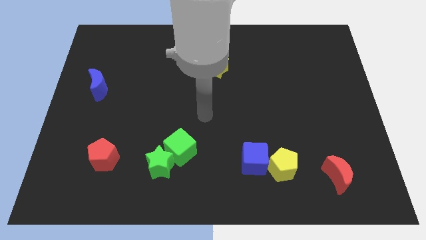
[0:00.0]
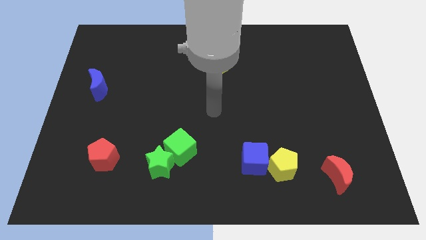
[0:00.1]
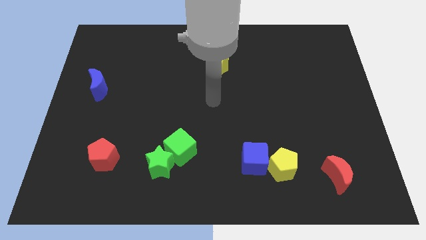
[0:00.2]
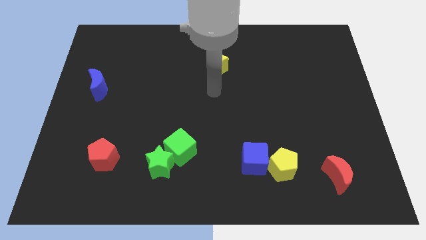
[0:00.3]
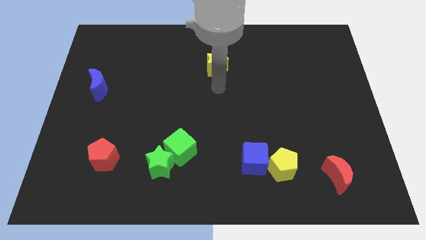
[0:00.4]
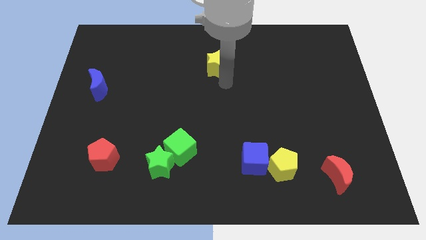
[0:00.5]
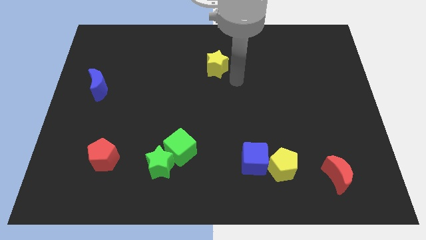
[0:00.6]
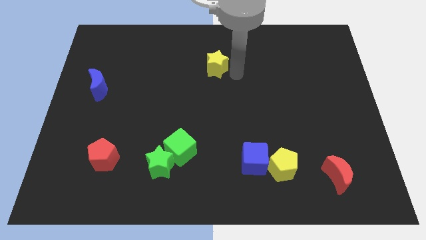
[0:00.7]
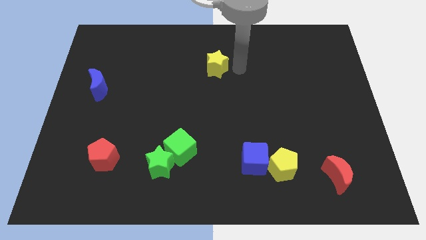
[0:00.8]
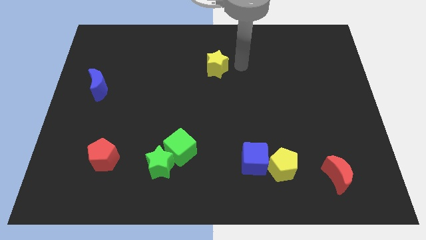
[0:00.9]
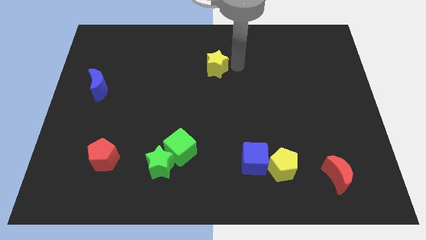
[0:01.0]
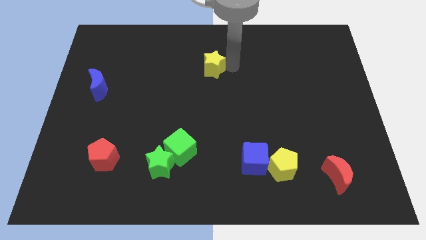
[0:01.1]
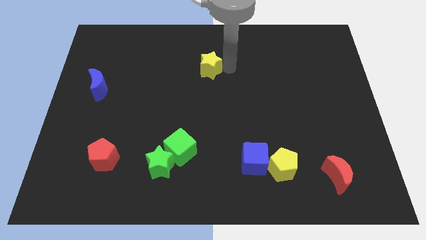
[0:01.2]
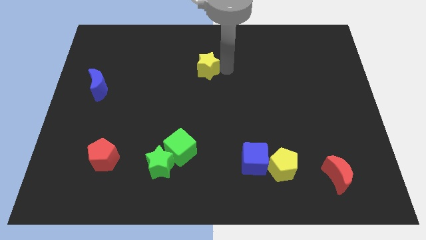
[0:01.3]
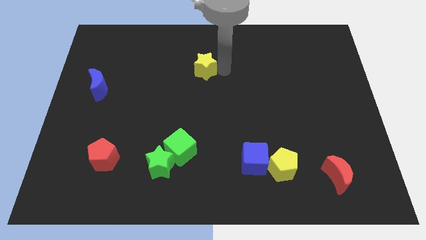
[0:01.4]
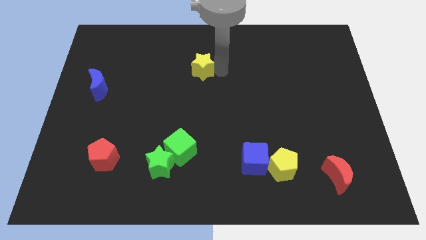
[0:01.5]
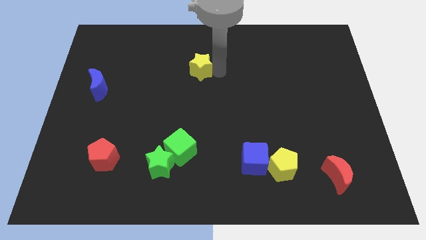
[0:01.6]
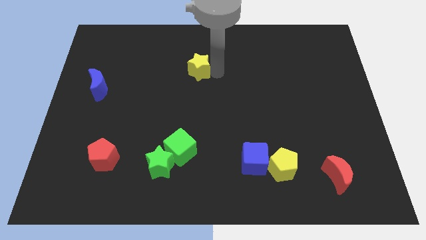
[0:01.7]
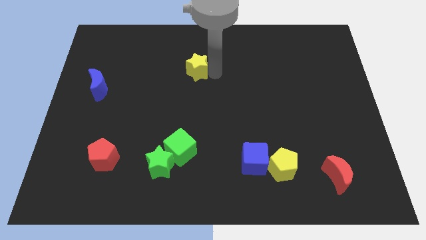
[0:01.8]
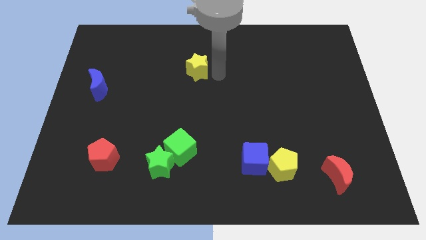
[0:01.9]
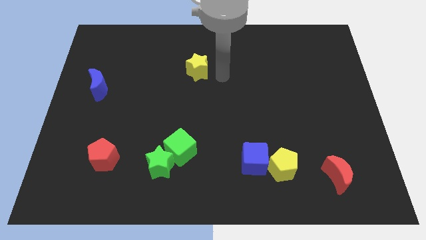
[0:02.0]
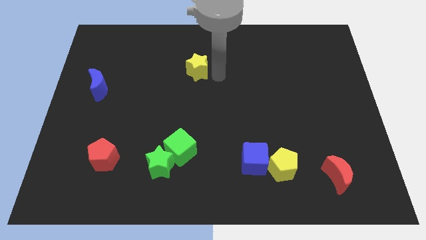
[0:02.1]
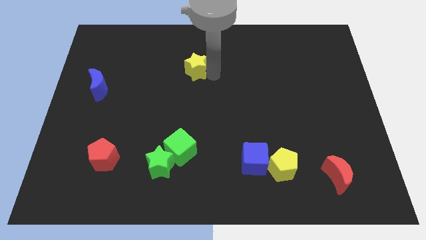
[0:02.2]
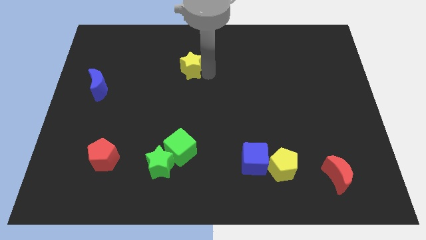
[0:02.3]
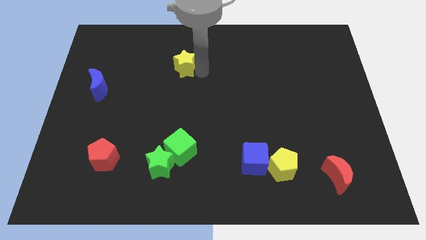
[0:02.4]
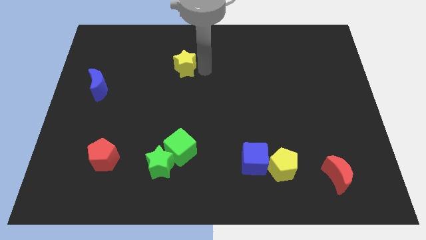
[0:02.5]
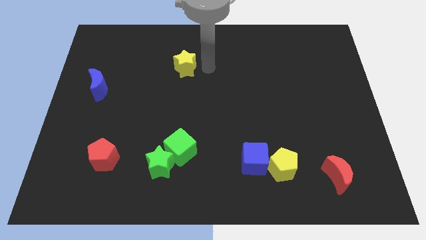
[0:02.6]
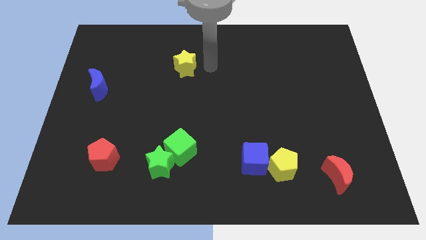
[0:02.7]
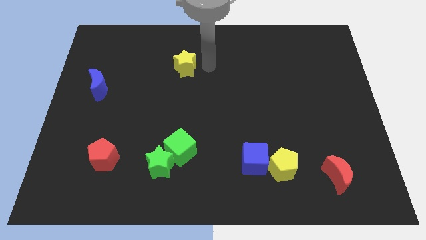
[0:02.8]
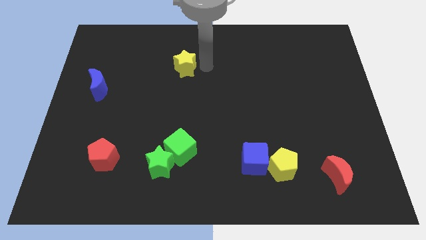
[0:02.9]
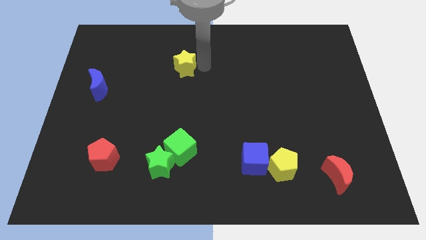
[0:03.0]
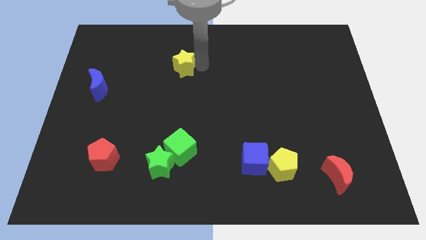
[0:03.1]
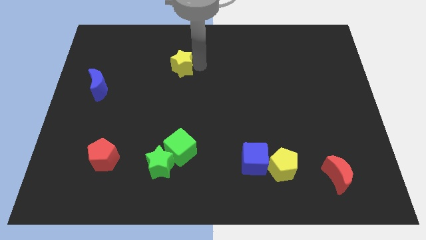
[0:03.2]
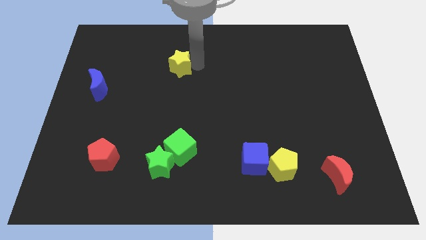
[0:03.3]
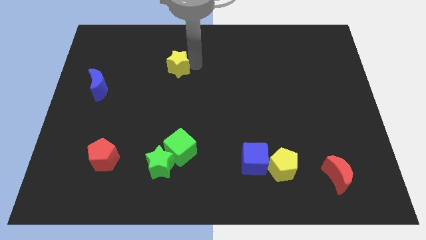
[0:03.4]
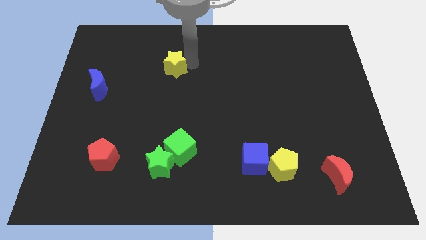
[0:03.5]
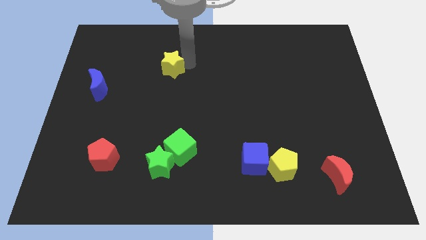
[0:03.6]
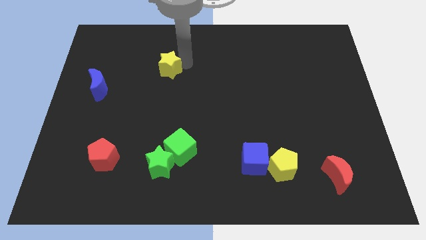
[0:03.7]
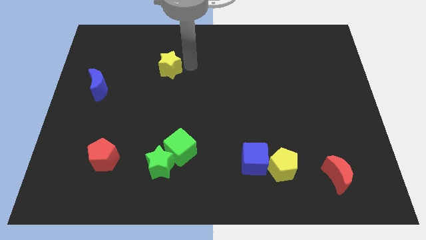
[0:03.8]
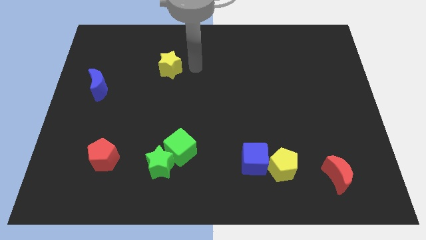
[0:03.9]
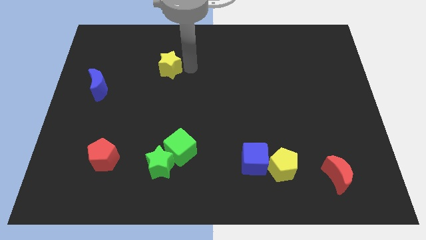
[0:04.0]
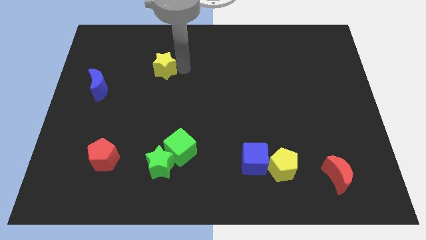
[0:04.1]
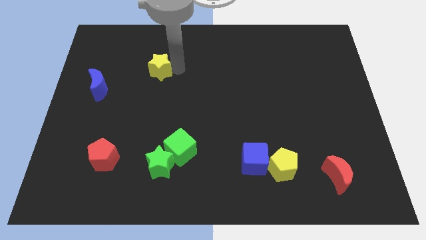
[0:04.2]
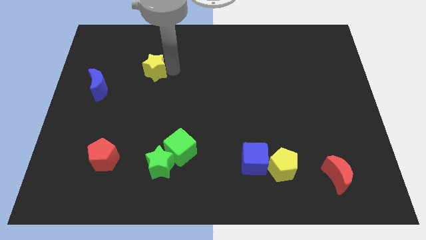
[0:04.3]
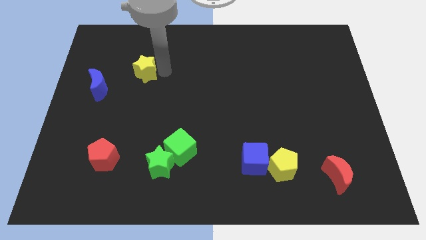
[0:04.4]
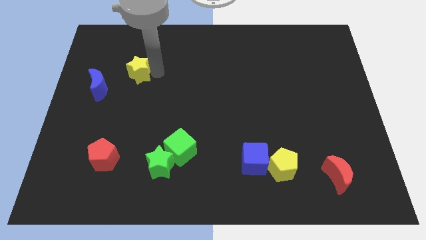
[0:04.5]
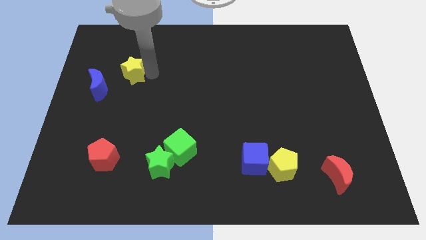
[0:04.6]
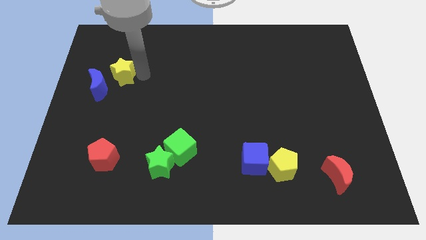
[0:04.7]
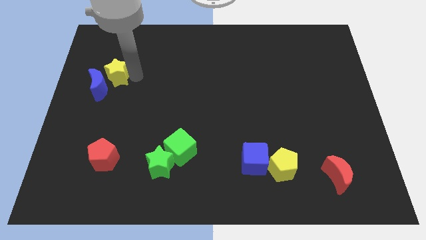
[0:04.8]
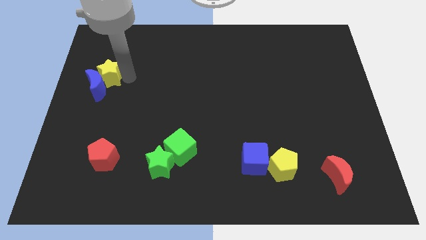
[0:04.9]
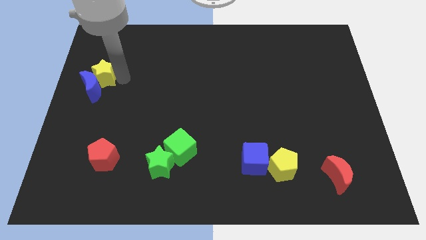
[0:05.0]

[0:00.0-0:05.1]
move the yellow star to the center left
